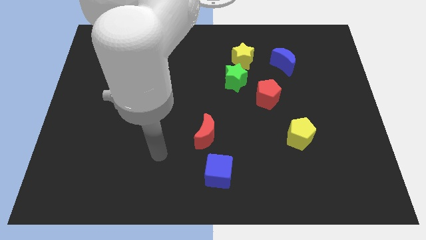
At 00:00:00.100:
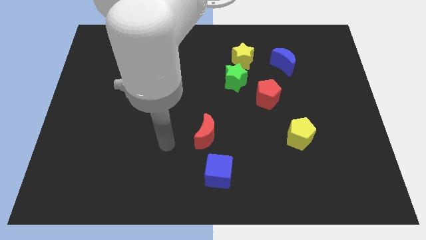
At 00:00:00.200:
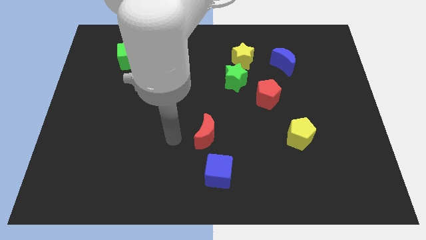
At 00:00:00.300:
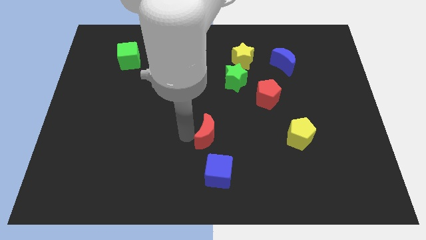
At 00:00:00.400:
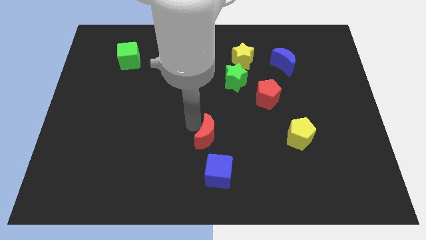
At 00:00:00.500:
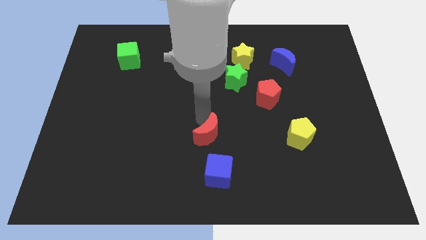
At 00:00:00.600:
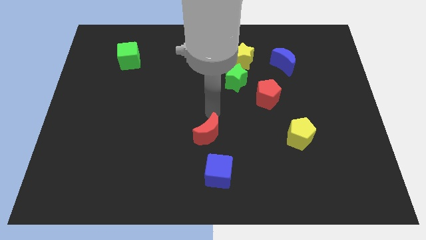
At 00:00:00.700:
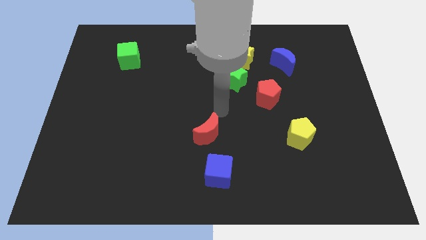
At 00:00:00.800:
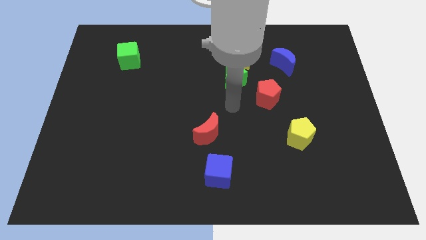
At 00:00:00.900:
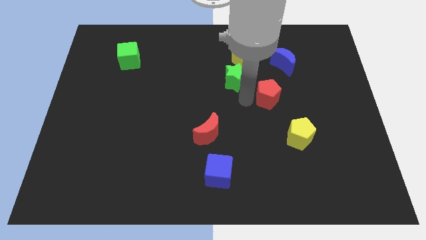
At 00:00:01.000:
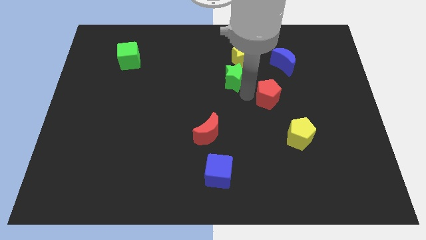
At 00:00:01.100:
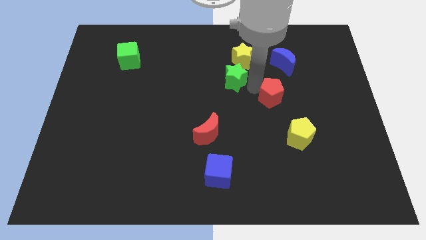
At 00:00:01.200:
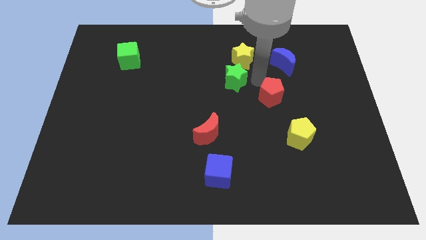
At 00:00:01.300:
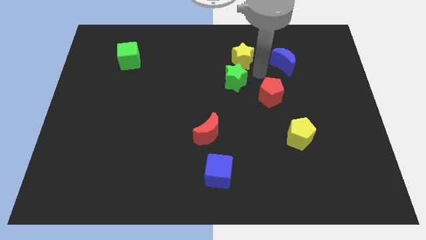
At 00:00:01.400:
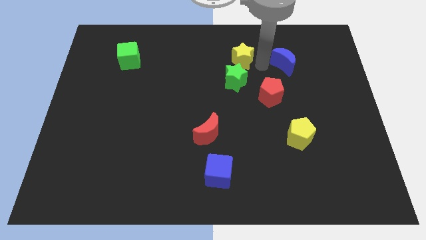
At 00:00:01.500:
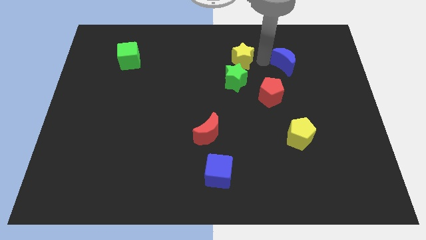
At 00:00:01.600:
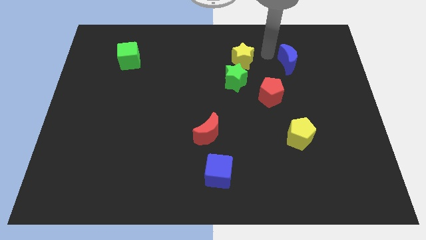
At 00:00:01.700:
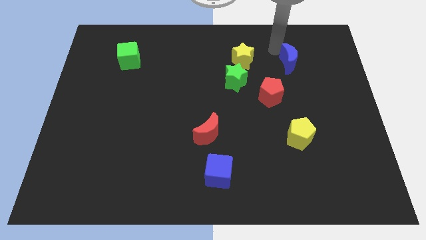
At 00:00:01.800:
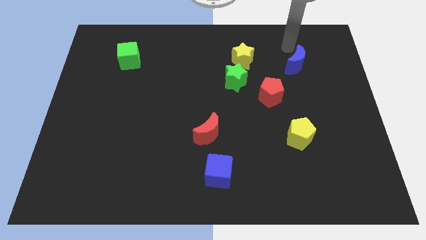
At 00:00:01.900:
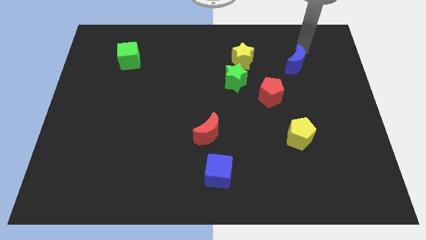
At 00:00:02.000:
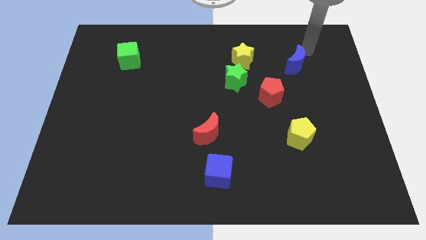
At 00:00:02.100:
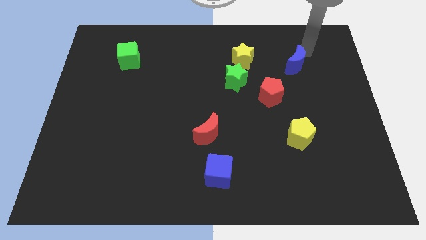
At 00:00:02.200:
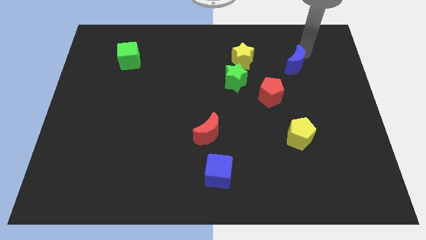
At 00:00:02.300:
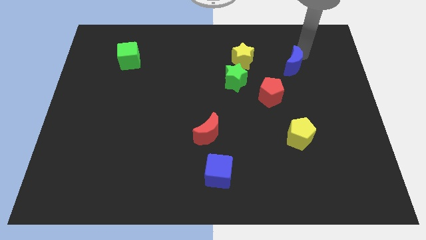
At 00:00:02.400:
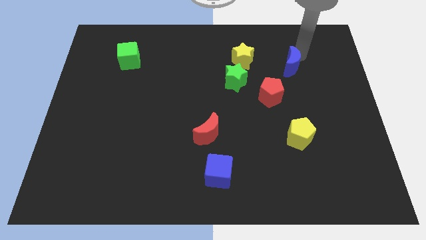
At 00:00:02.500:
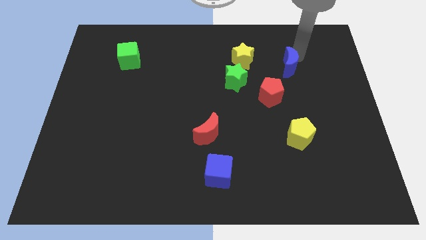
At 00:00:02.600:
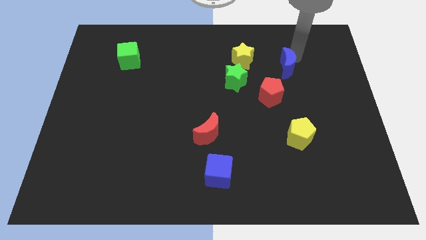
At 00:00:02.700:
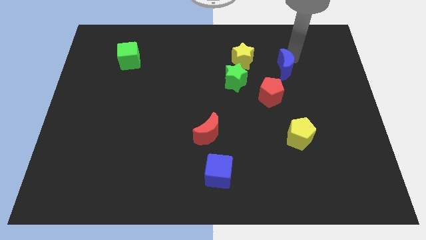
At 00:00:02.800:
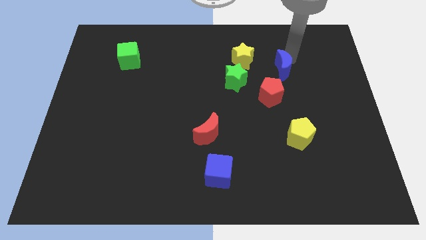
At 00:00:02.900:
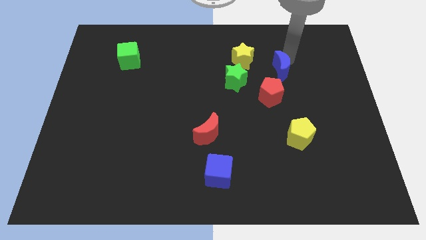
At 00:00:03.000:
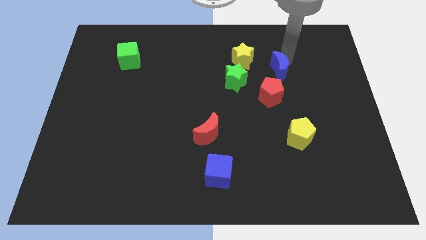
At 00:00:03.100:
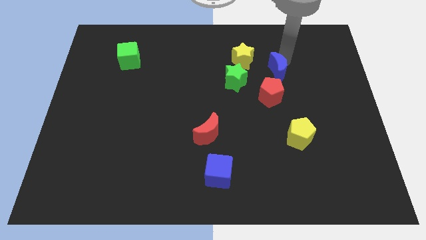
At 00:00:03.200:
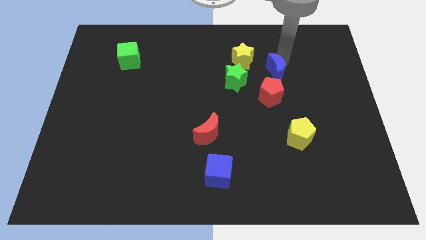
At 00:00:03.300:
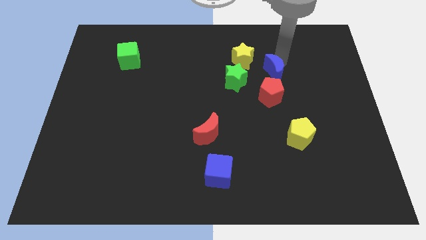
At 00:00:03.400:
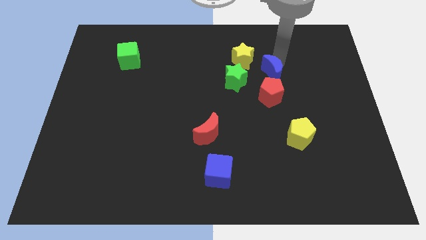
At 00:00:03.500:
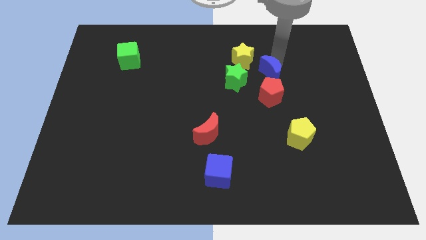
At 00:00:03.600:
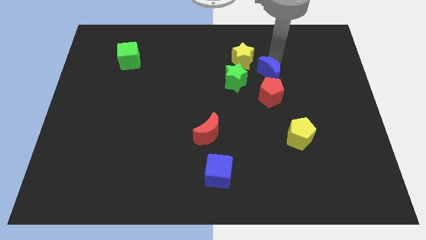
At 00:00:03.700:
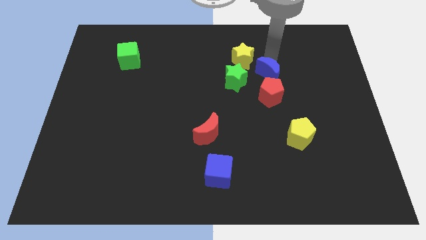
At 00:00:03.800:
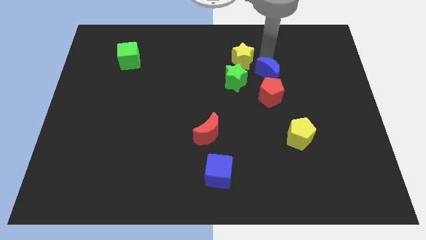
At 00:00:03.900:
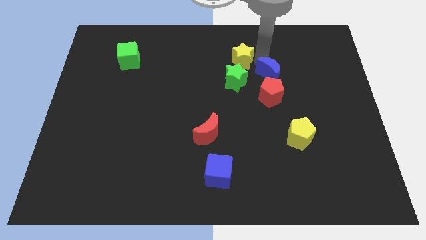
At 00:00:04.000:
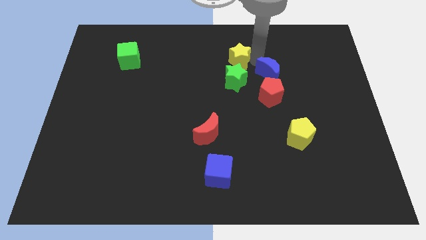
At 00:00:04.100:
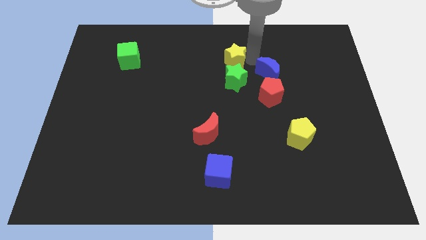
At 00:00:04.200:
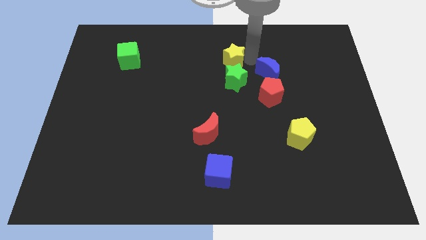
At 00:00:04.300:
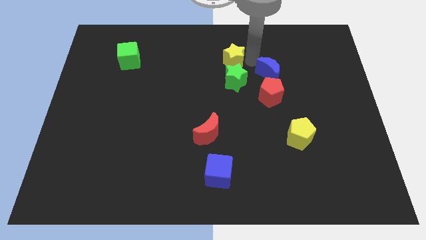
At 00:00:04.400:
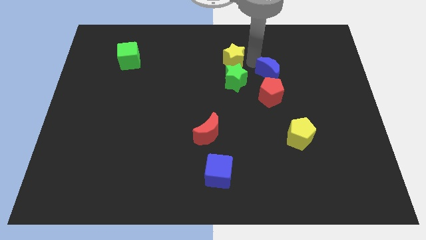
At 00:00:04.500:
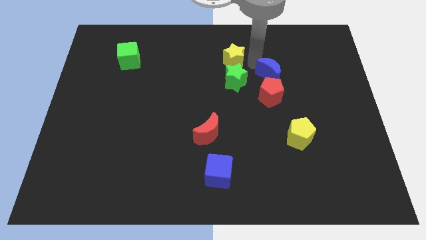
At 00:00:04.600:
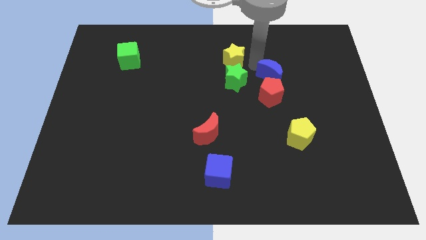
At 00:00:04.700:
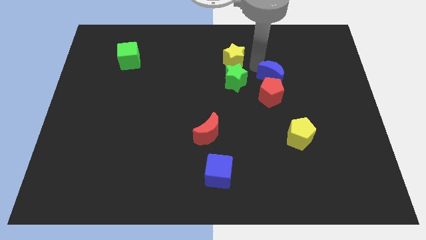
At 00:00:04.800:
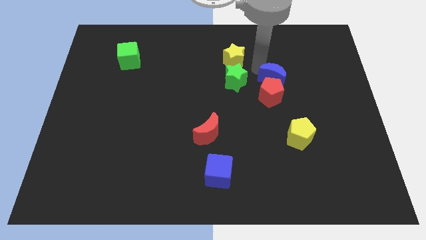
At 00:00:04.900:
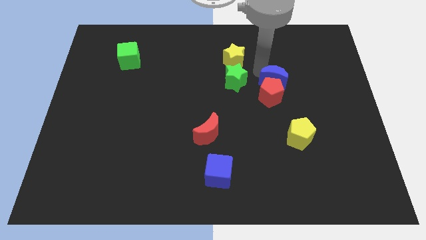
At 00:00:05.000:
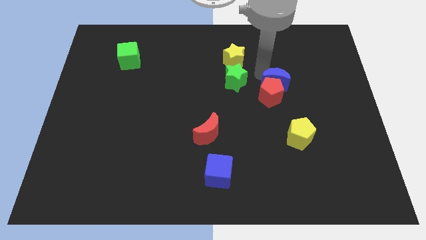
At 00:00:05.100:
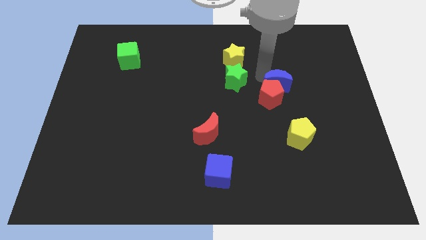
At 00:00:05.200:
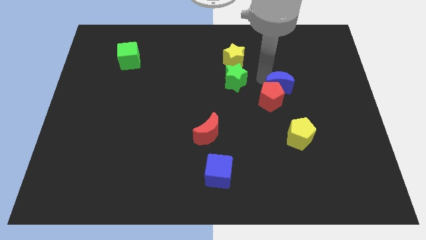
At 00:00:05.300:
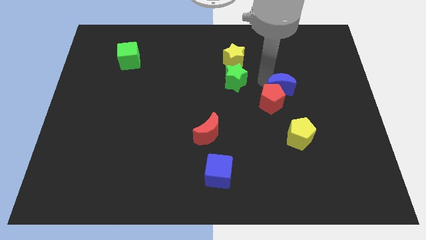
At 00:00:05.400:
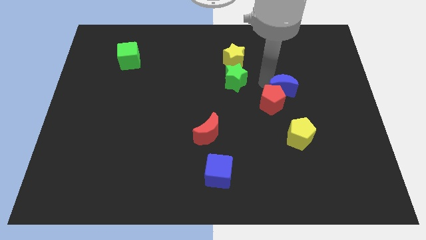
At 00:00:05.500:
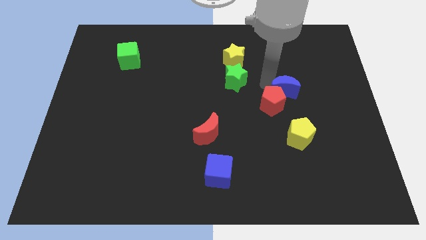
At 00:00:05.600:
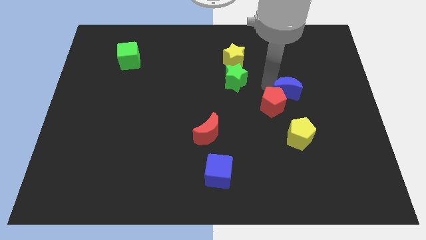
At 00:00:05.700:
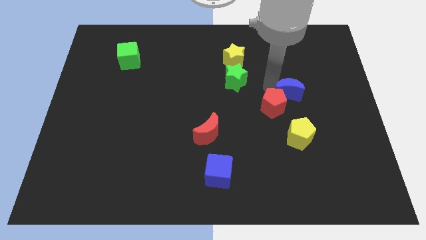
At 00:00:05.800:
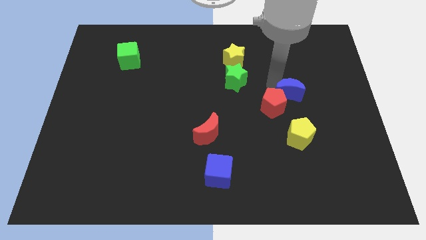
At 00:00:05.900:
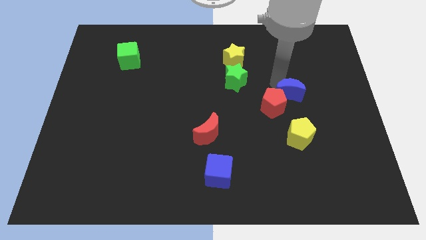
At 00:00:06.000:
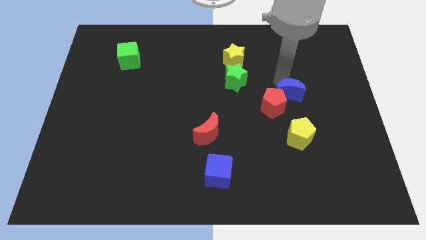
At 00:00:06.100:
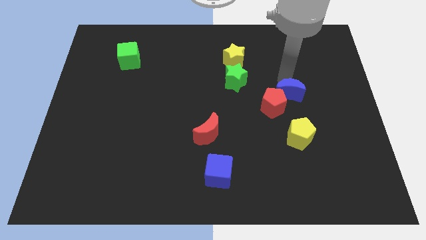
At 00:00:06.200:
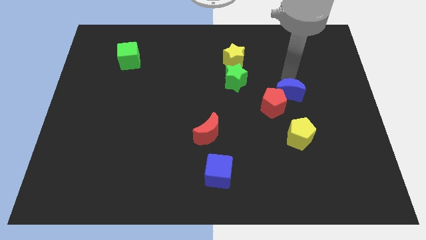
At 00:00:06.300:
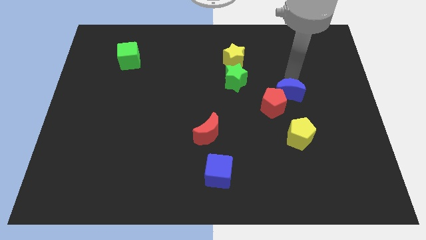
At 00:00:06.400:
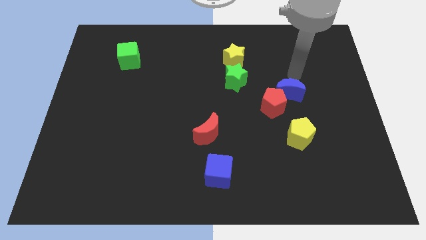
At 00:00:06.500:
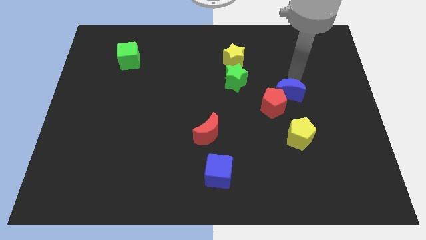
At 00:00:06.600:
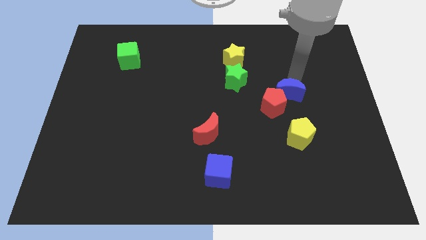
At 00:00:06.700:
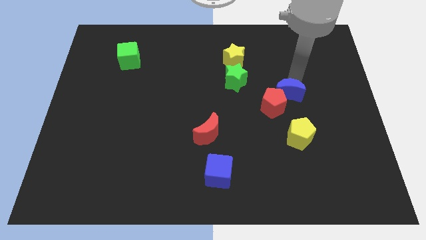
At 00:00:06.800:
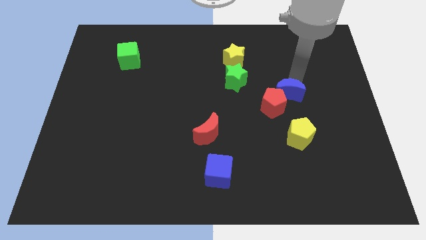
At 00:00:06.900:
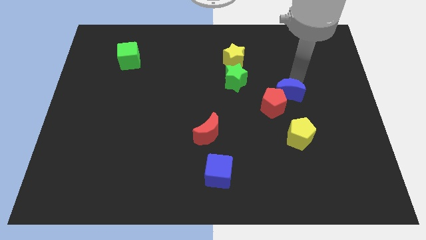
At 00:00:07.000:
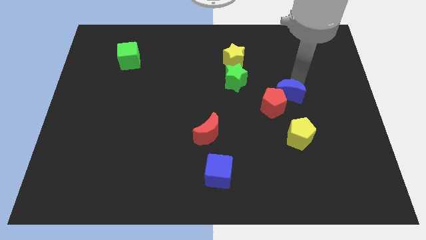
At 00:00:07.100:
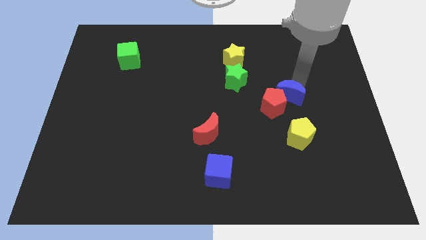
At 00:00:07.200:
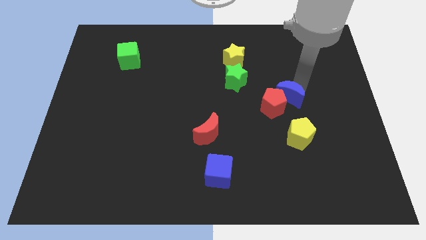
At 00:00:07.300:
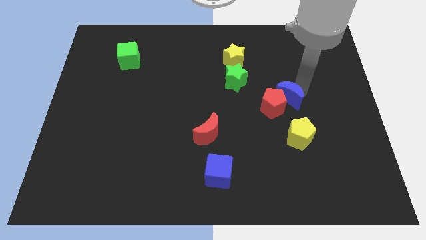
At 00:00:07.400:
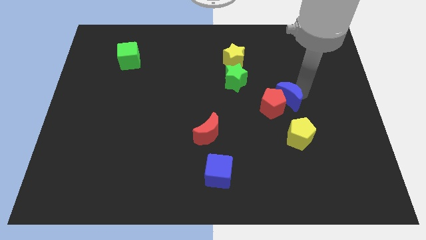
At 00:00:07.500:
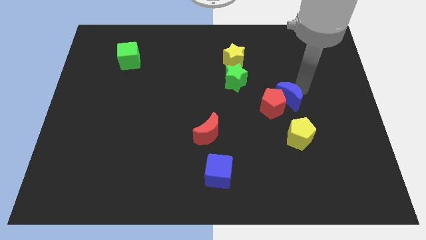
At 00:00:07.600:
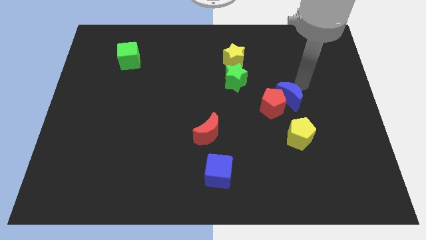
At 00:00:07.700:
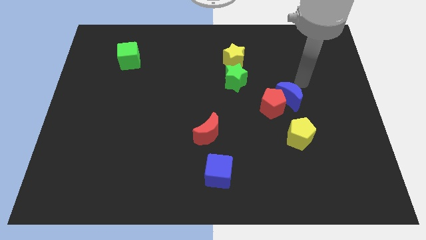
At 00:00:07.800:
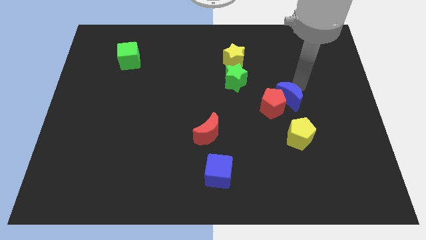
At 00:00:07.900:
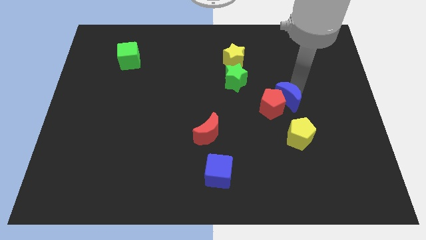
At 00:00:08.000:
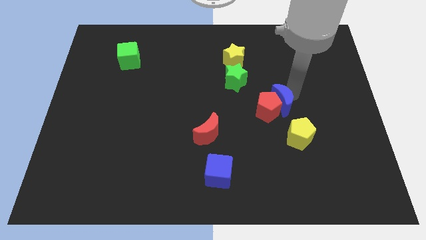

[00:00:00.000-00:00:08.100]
move the blue moon to the top left side of the yellow pentagon
